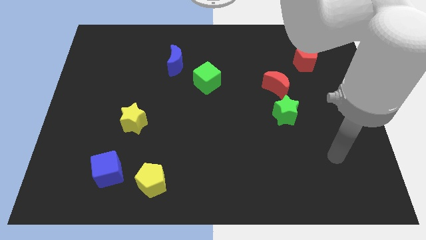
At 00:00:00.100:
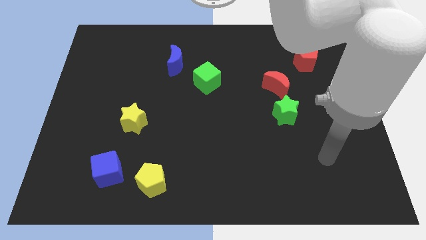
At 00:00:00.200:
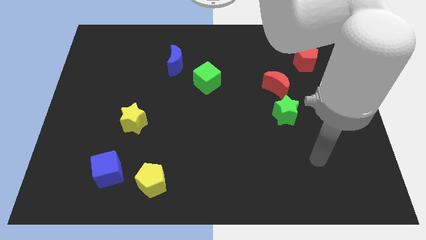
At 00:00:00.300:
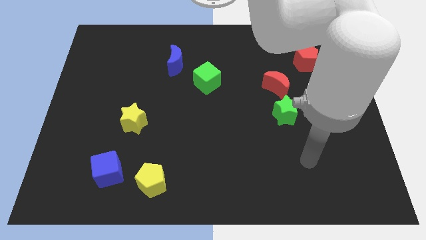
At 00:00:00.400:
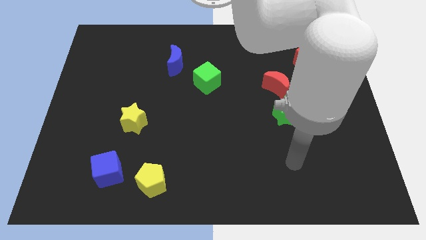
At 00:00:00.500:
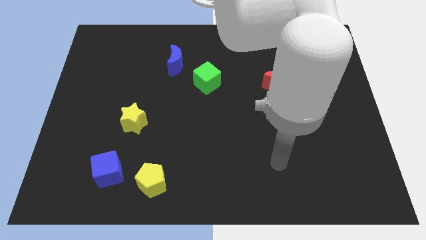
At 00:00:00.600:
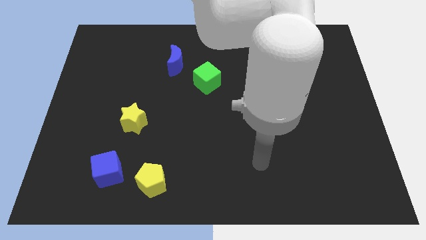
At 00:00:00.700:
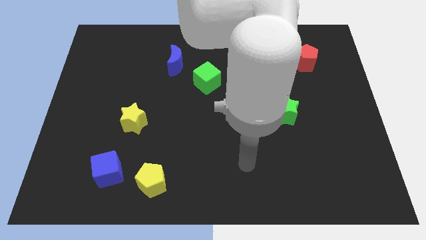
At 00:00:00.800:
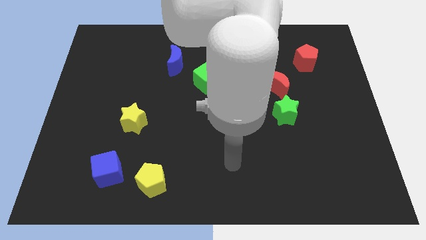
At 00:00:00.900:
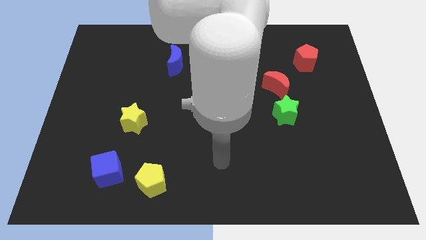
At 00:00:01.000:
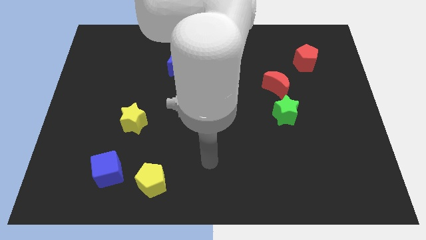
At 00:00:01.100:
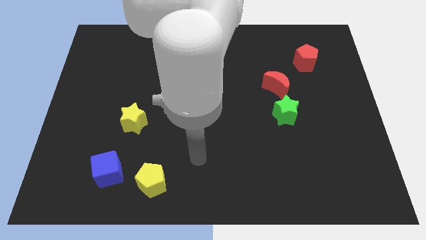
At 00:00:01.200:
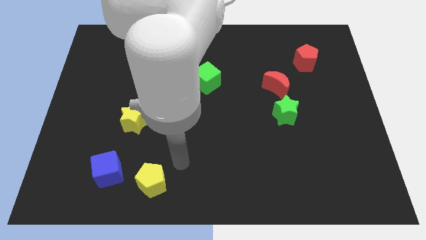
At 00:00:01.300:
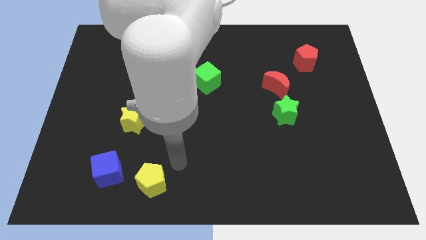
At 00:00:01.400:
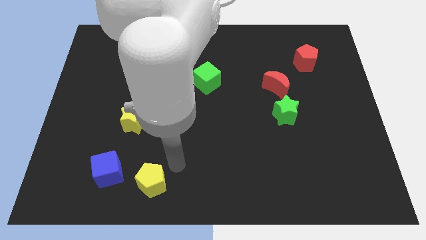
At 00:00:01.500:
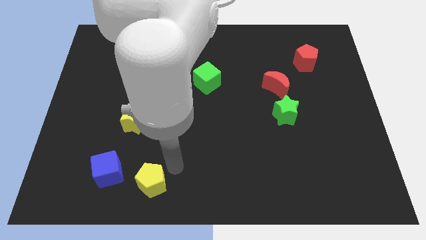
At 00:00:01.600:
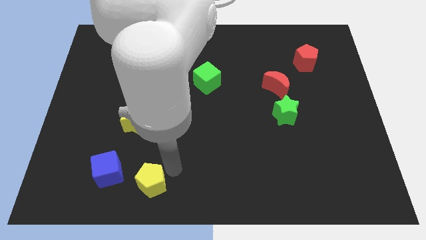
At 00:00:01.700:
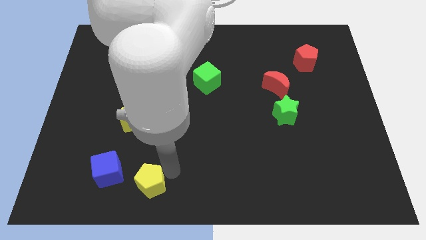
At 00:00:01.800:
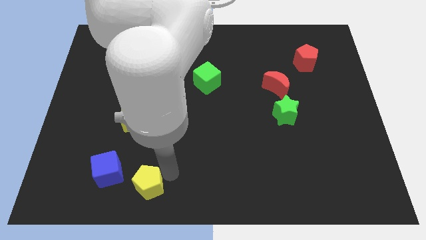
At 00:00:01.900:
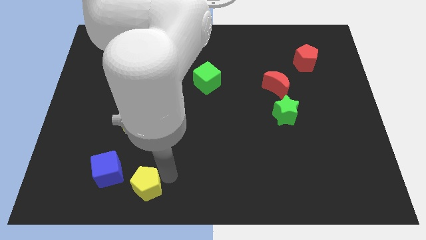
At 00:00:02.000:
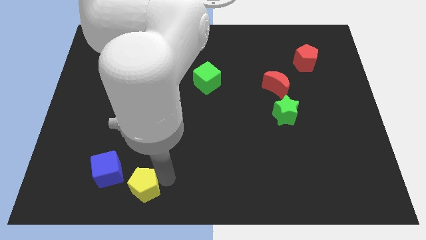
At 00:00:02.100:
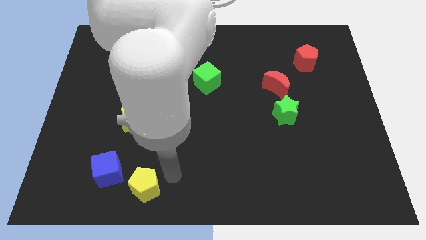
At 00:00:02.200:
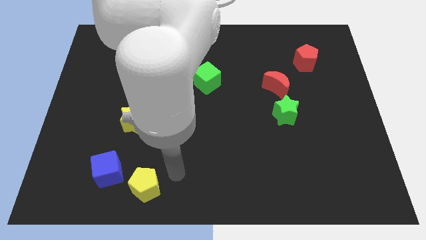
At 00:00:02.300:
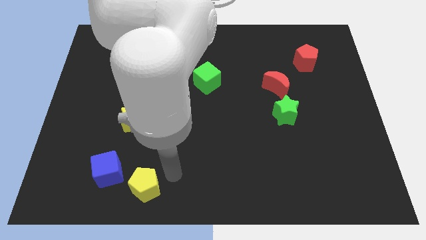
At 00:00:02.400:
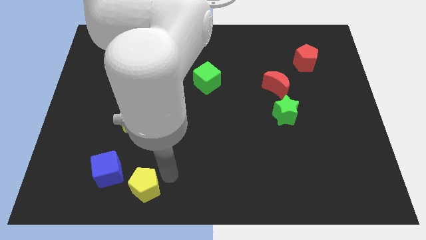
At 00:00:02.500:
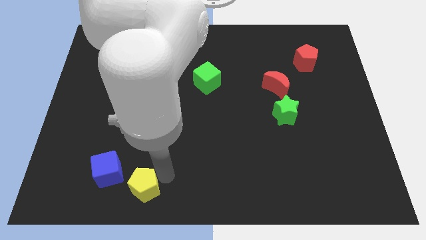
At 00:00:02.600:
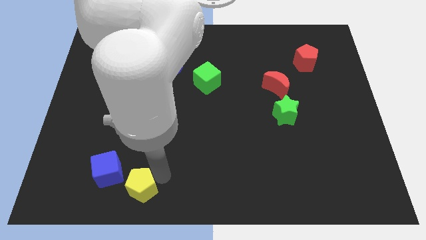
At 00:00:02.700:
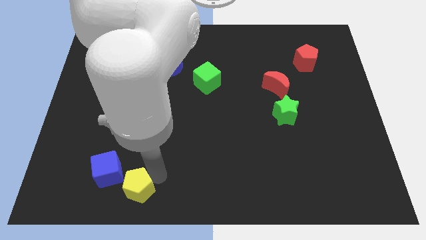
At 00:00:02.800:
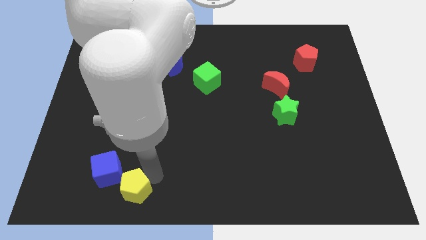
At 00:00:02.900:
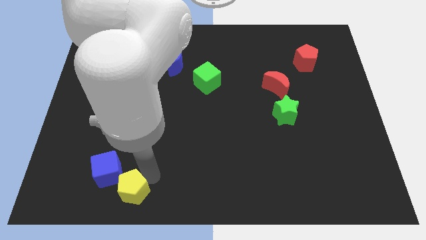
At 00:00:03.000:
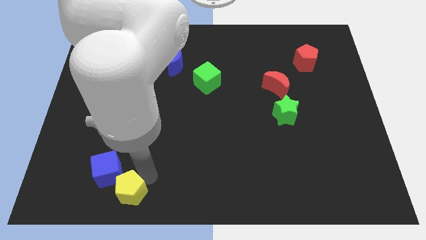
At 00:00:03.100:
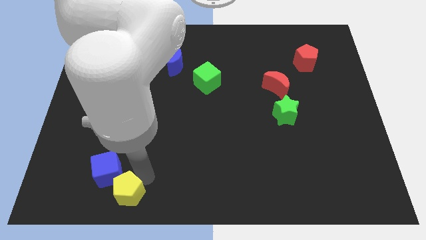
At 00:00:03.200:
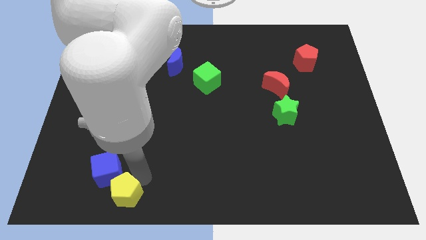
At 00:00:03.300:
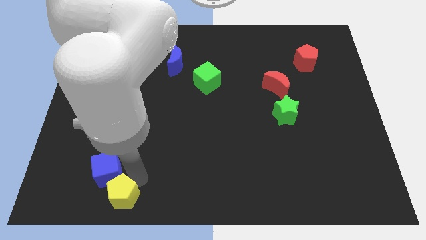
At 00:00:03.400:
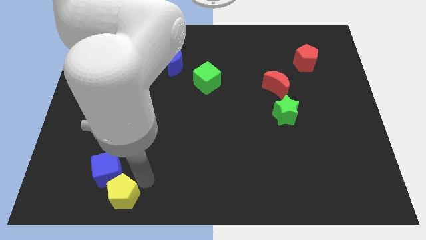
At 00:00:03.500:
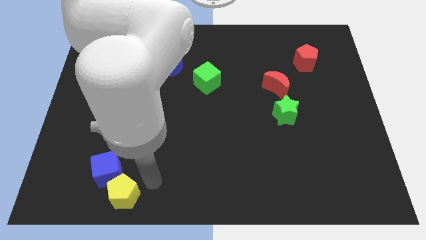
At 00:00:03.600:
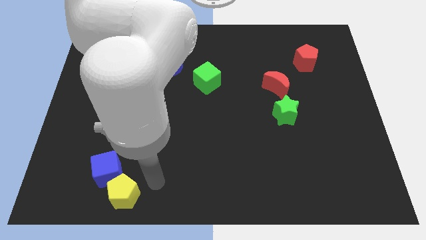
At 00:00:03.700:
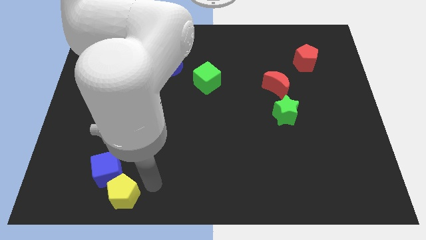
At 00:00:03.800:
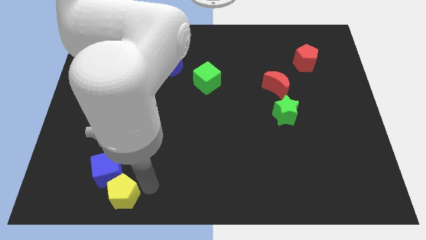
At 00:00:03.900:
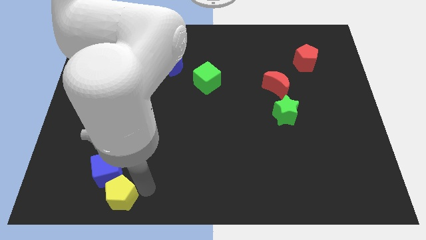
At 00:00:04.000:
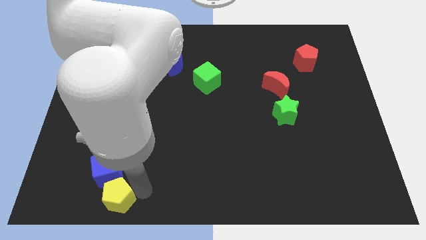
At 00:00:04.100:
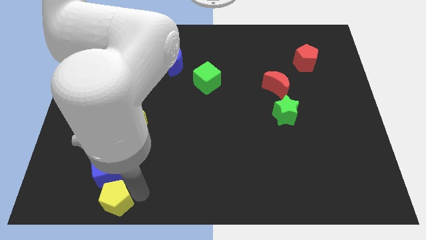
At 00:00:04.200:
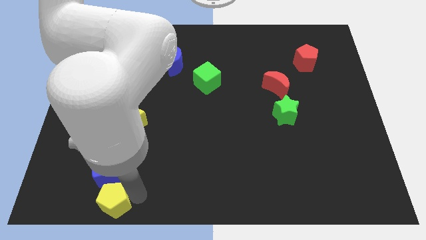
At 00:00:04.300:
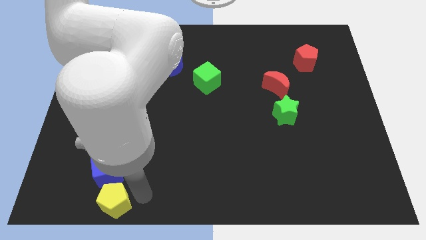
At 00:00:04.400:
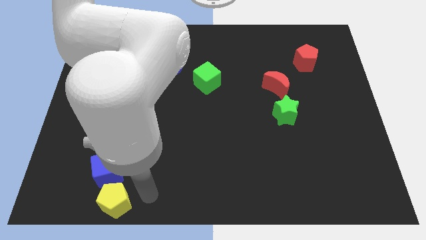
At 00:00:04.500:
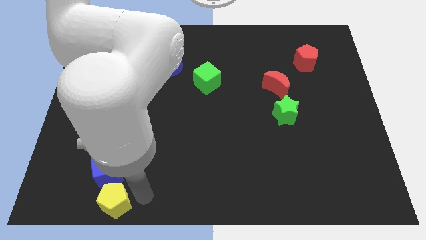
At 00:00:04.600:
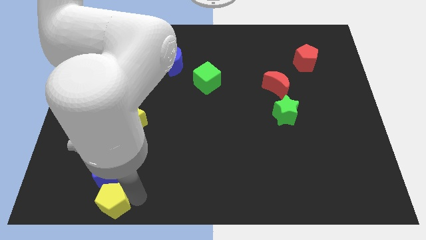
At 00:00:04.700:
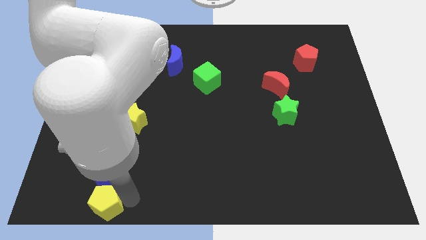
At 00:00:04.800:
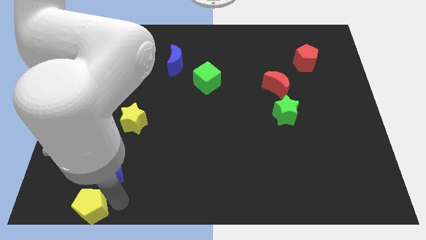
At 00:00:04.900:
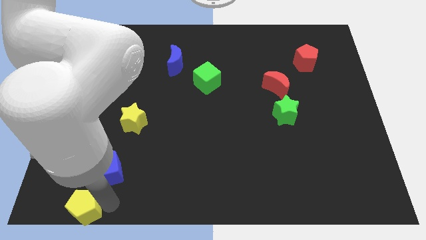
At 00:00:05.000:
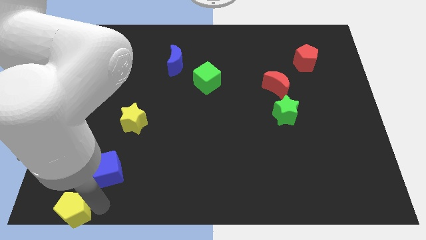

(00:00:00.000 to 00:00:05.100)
slide the yellow pentagon to the bottom left

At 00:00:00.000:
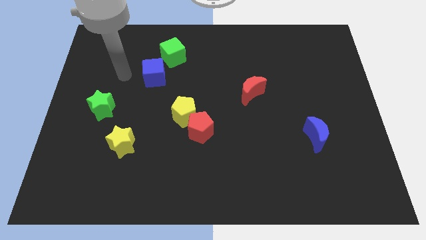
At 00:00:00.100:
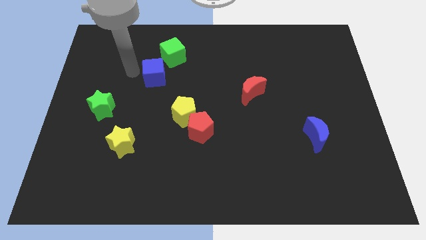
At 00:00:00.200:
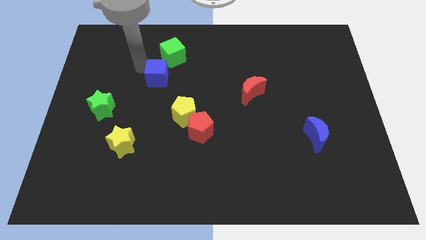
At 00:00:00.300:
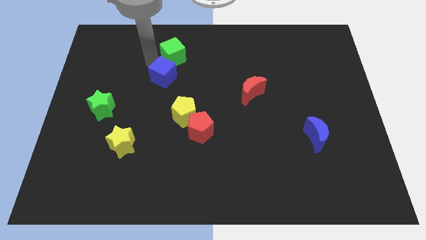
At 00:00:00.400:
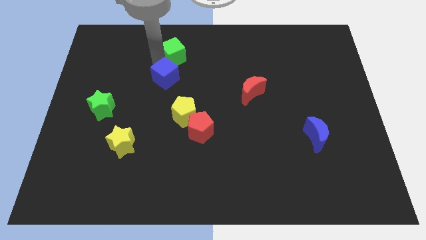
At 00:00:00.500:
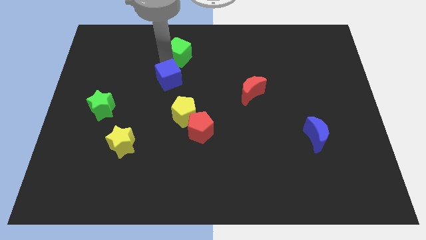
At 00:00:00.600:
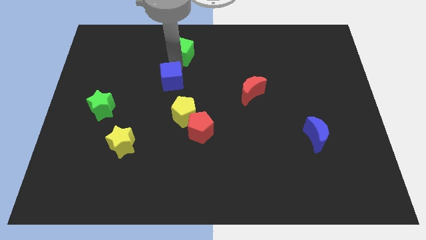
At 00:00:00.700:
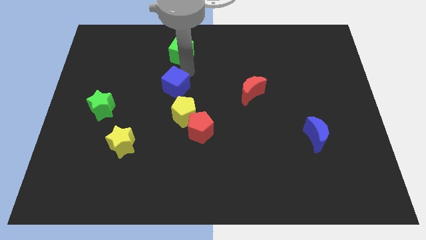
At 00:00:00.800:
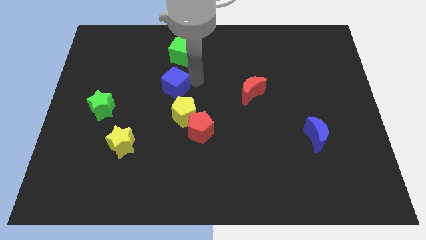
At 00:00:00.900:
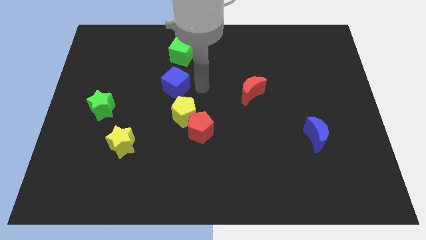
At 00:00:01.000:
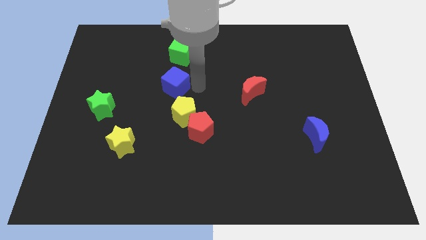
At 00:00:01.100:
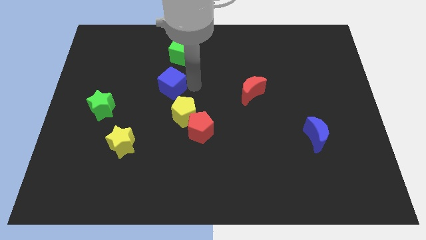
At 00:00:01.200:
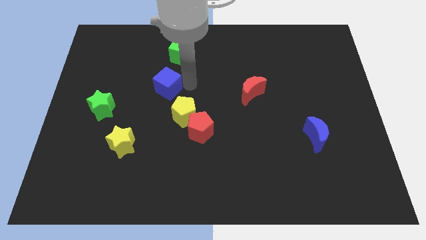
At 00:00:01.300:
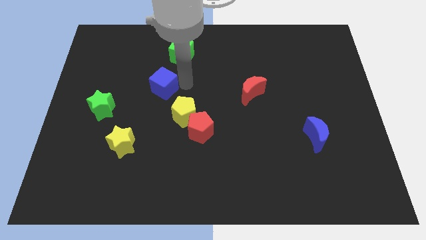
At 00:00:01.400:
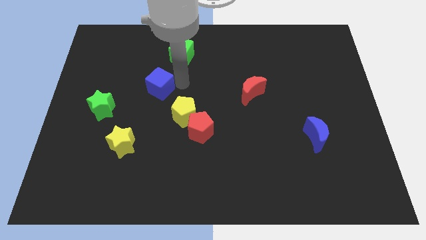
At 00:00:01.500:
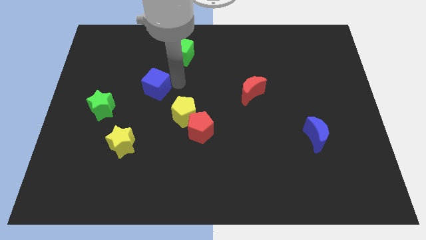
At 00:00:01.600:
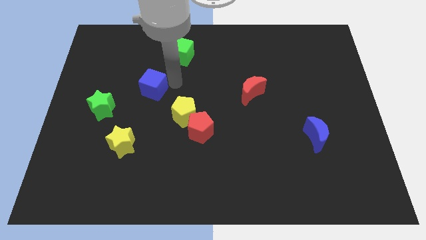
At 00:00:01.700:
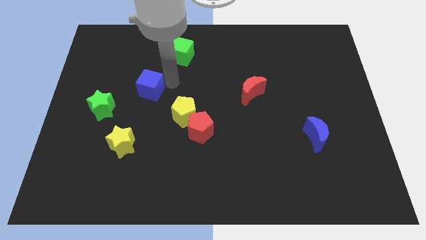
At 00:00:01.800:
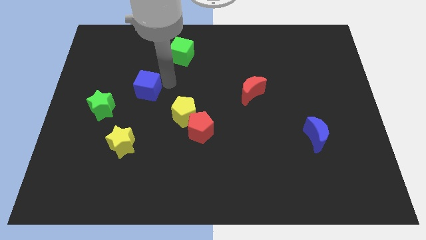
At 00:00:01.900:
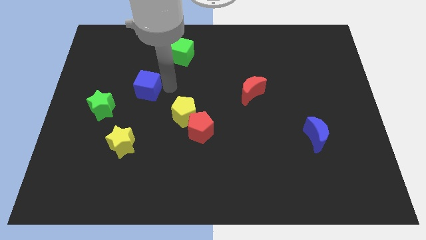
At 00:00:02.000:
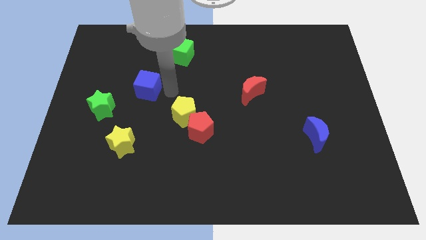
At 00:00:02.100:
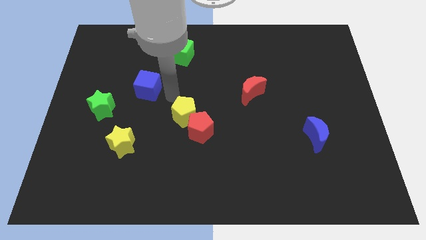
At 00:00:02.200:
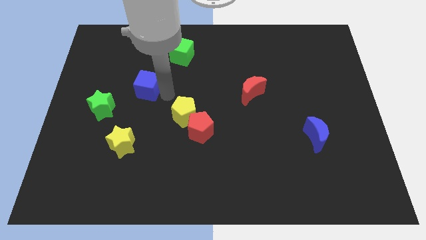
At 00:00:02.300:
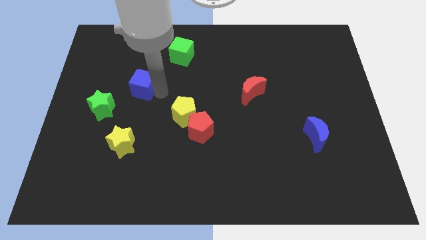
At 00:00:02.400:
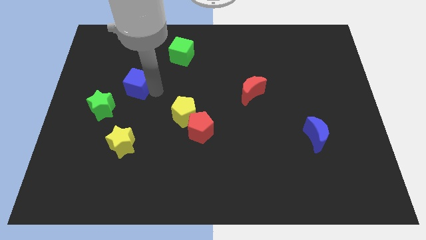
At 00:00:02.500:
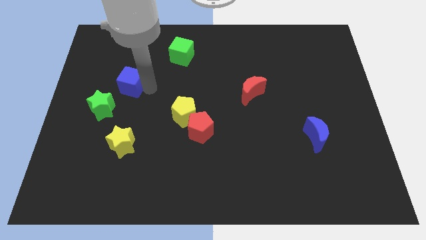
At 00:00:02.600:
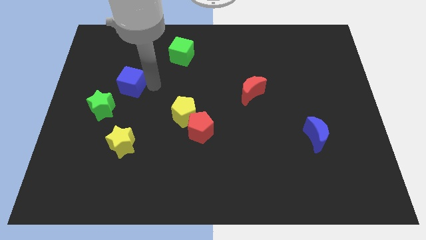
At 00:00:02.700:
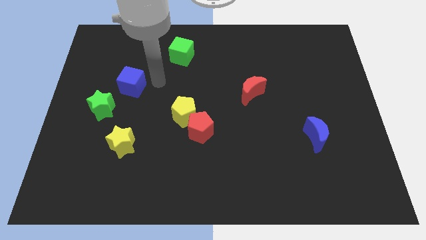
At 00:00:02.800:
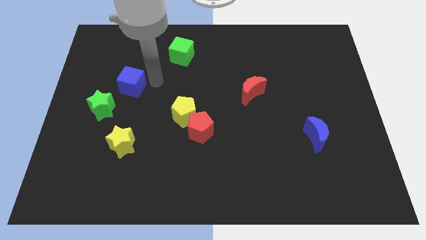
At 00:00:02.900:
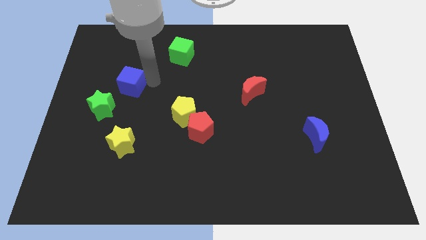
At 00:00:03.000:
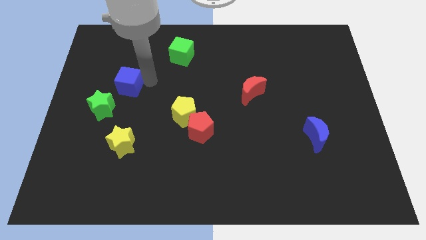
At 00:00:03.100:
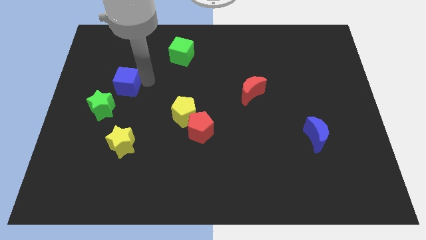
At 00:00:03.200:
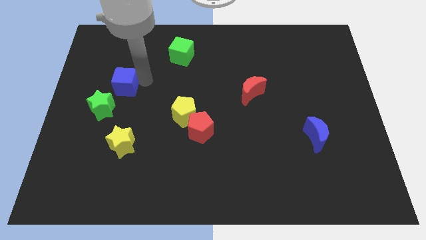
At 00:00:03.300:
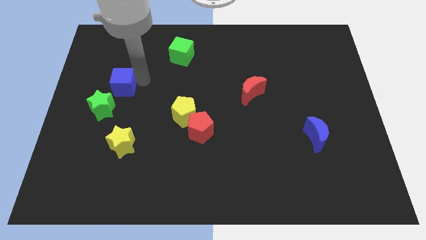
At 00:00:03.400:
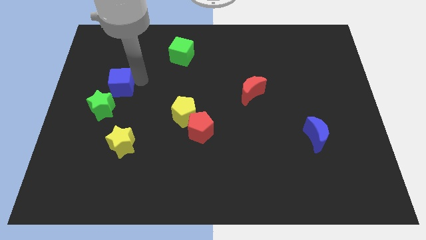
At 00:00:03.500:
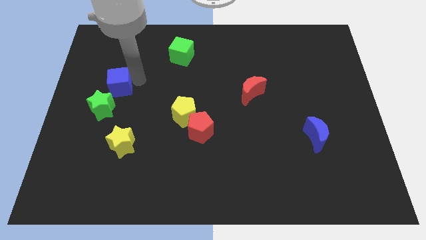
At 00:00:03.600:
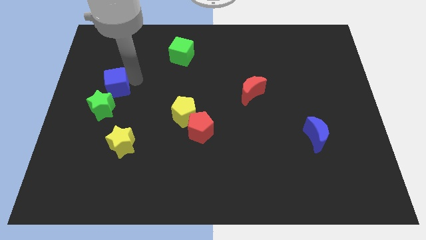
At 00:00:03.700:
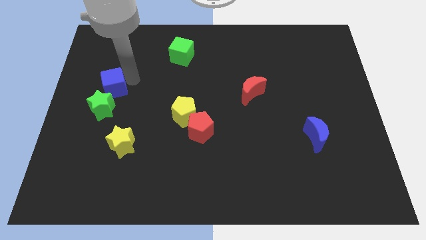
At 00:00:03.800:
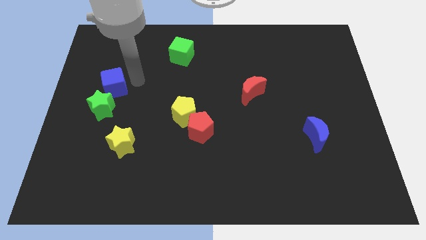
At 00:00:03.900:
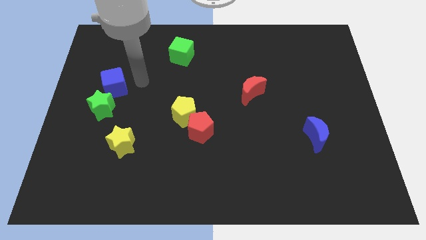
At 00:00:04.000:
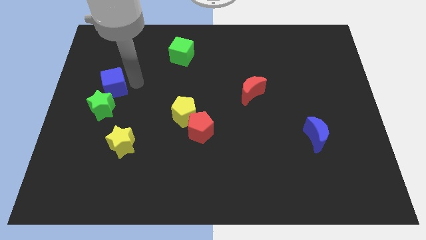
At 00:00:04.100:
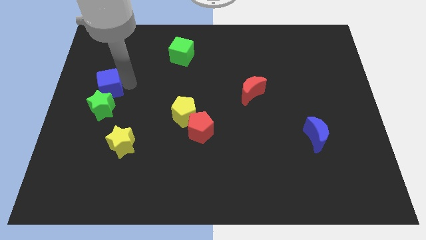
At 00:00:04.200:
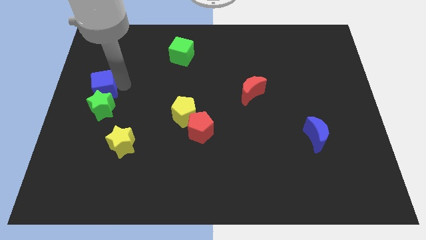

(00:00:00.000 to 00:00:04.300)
move the blue cube to the left side
